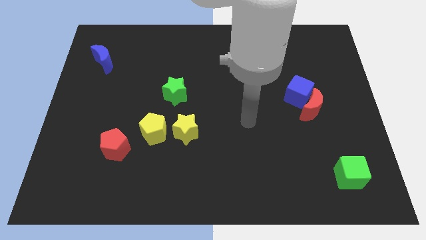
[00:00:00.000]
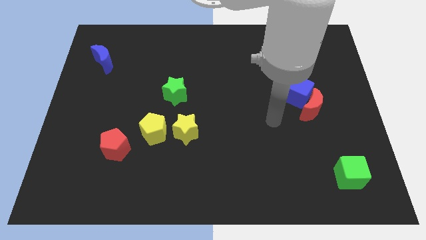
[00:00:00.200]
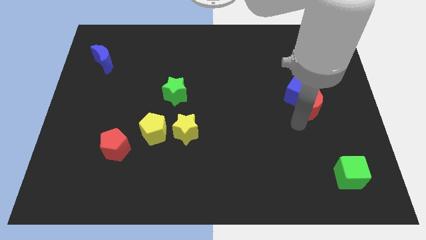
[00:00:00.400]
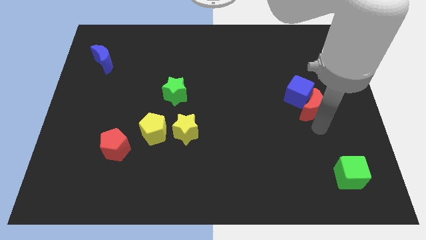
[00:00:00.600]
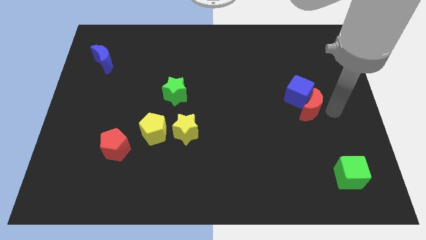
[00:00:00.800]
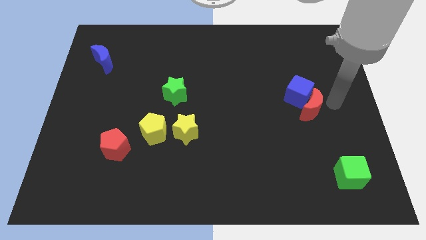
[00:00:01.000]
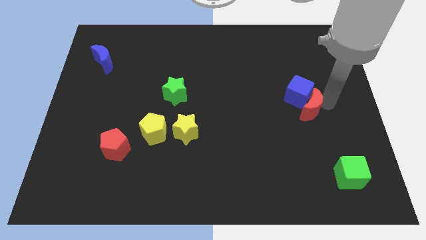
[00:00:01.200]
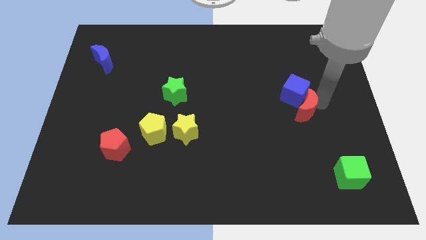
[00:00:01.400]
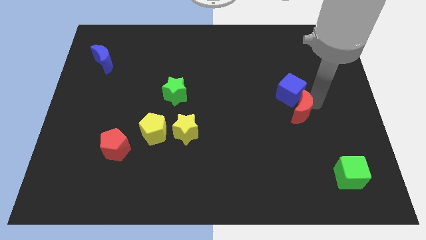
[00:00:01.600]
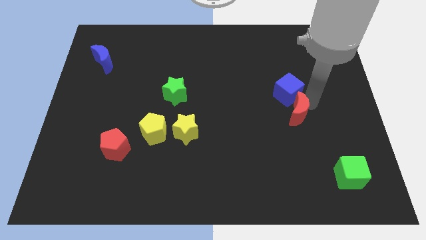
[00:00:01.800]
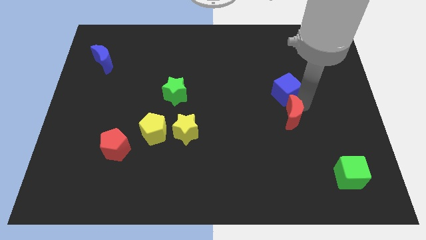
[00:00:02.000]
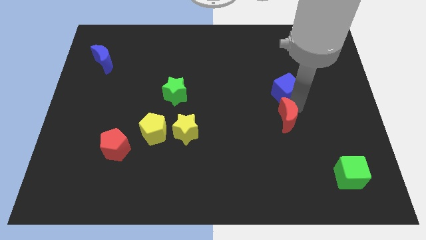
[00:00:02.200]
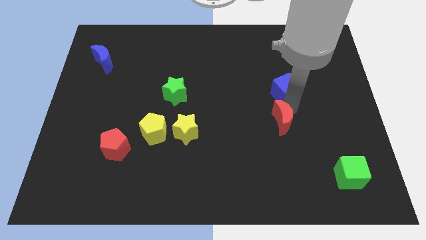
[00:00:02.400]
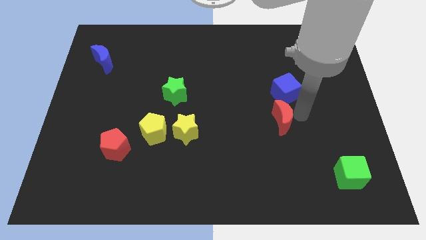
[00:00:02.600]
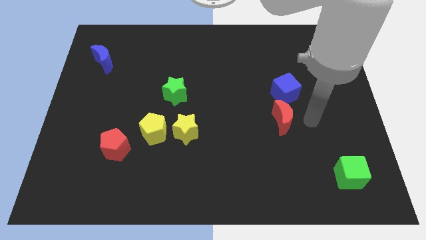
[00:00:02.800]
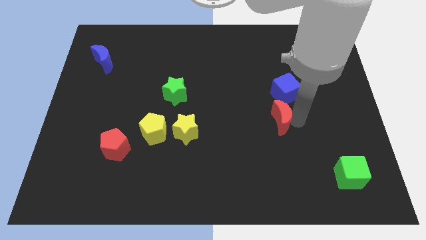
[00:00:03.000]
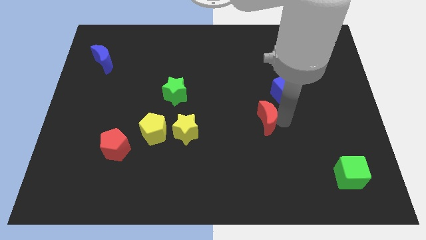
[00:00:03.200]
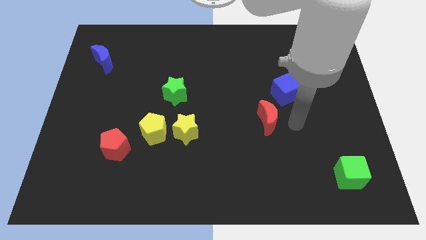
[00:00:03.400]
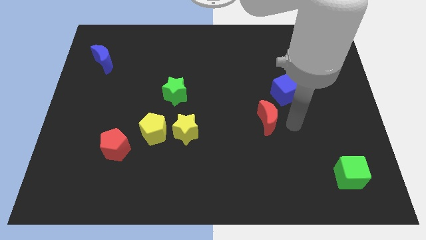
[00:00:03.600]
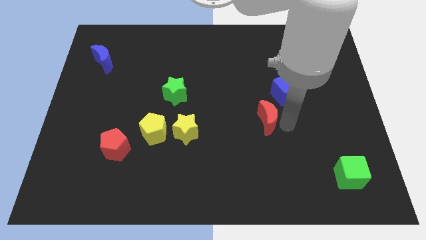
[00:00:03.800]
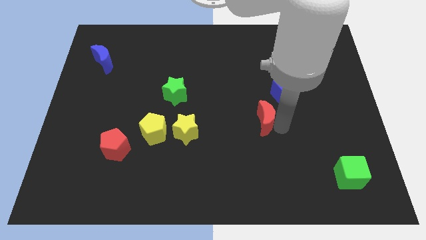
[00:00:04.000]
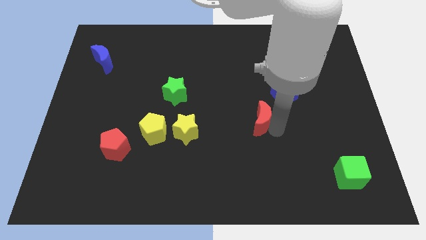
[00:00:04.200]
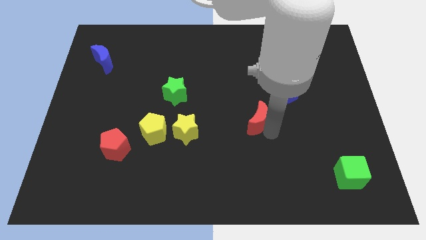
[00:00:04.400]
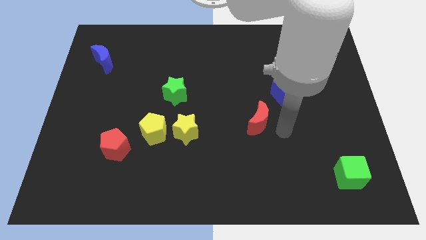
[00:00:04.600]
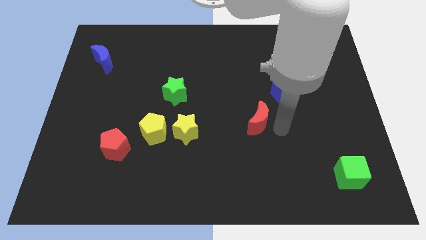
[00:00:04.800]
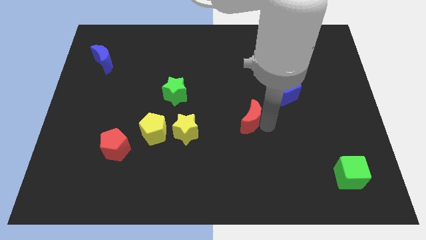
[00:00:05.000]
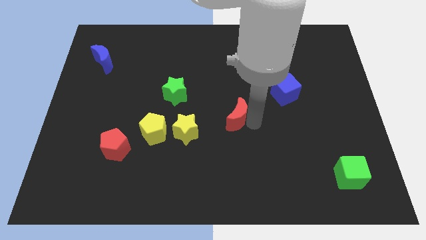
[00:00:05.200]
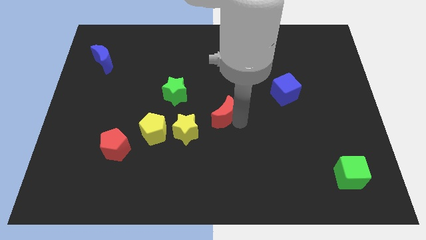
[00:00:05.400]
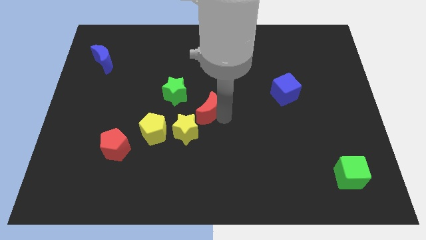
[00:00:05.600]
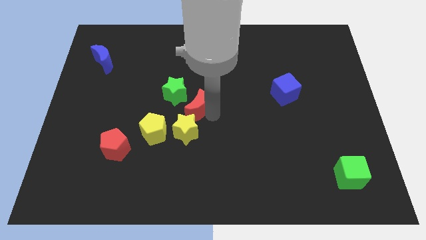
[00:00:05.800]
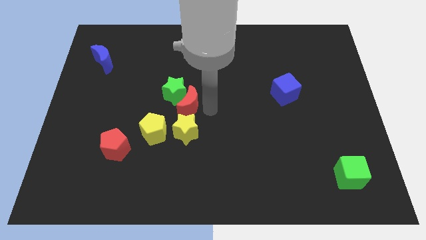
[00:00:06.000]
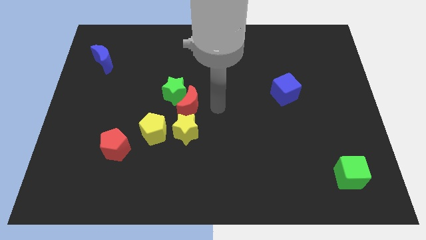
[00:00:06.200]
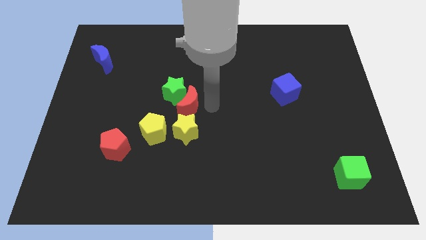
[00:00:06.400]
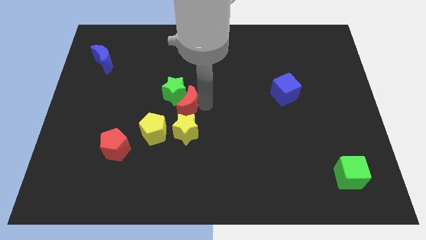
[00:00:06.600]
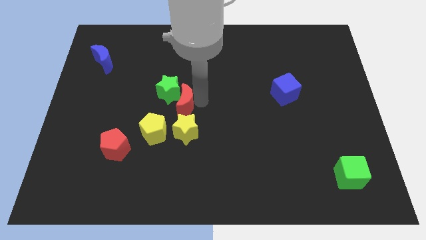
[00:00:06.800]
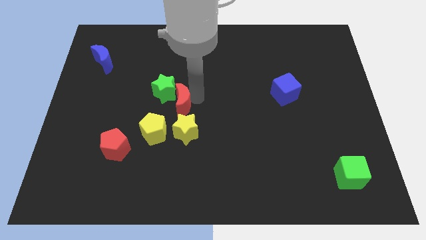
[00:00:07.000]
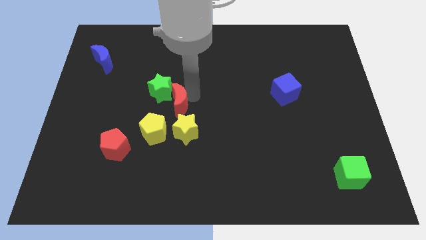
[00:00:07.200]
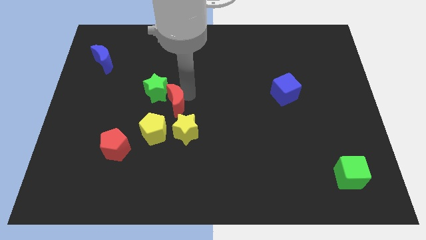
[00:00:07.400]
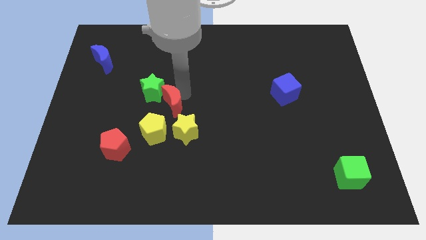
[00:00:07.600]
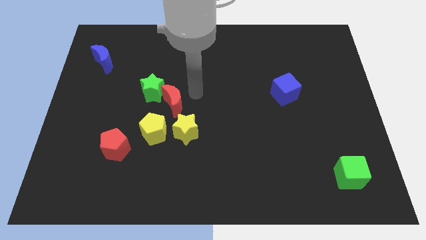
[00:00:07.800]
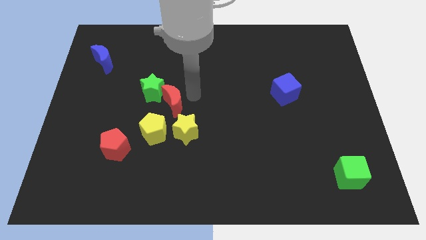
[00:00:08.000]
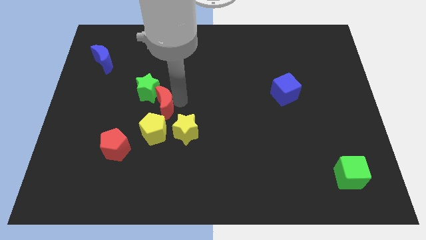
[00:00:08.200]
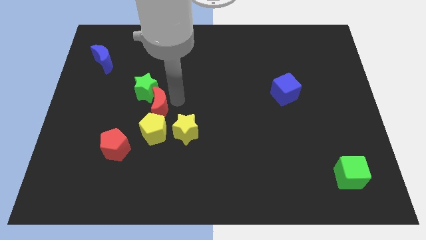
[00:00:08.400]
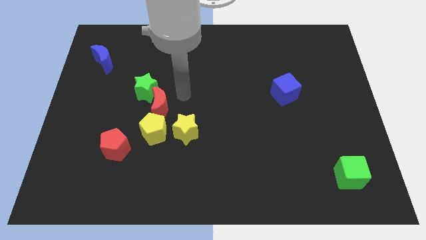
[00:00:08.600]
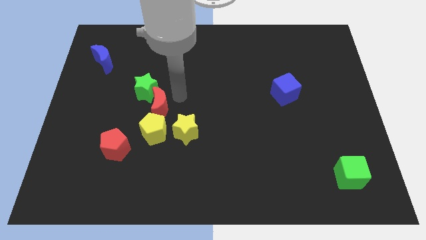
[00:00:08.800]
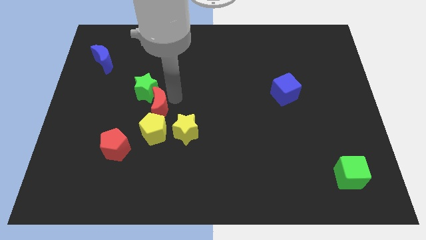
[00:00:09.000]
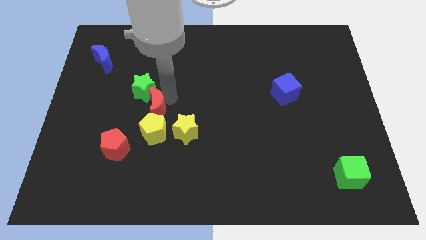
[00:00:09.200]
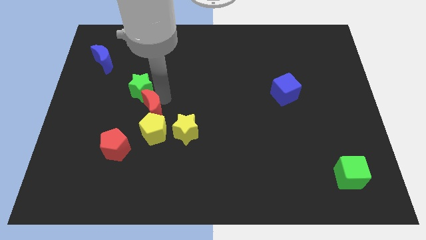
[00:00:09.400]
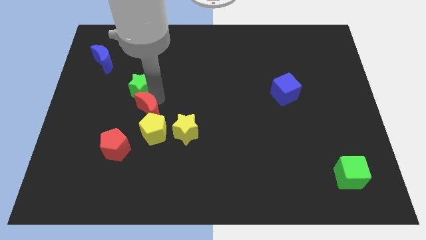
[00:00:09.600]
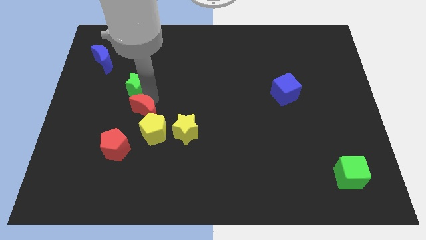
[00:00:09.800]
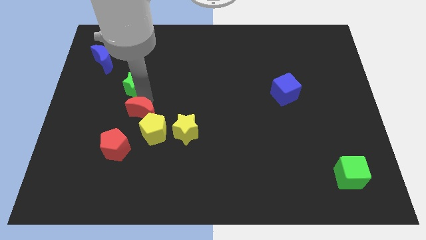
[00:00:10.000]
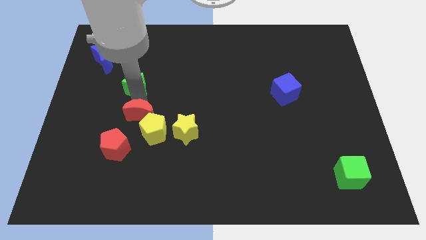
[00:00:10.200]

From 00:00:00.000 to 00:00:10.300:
push the red moon left of the yellow star

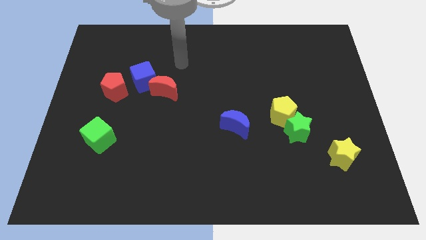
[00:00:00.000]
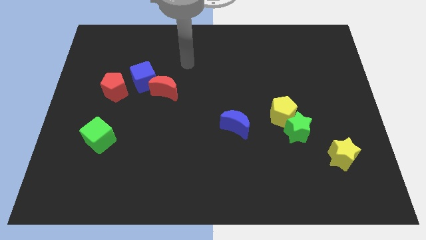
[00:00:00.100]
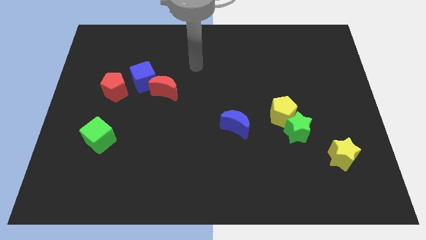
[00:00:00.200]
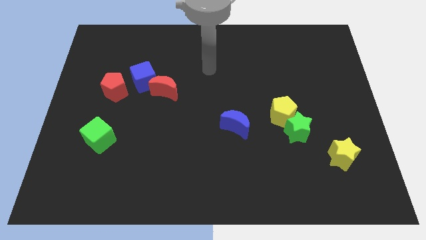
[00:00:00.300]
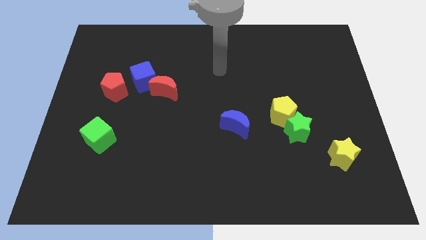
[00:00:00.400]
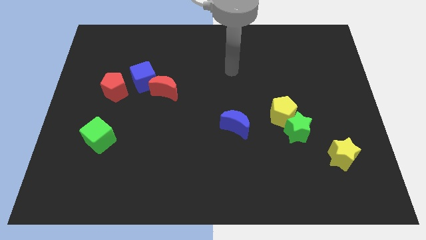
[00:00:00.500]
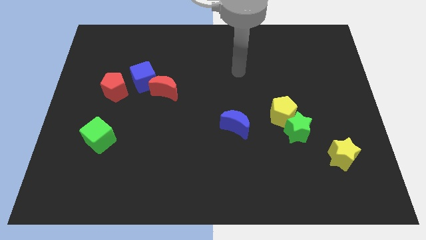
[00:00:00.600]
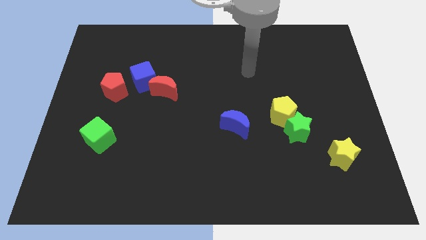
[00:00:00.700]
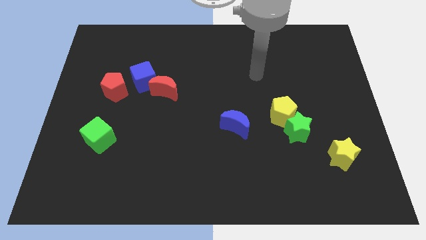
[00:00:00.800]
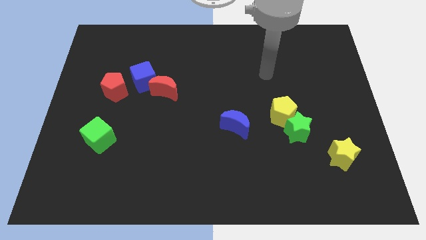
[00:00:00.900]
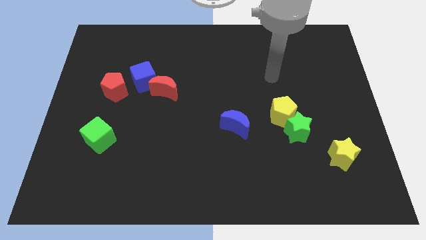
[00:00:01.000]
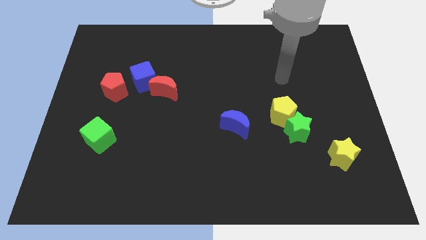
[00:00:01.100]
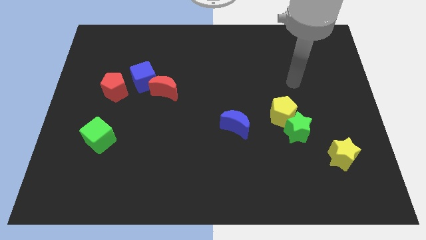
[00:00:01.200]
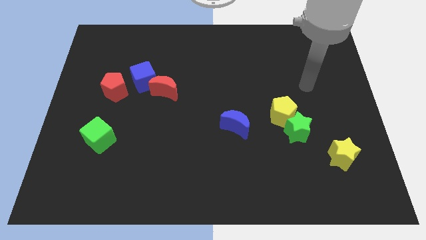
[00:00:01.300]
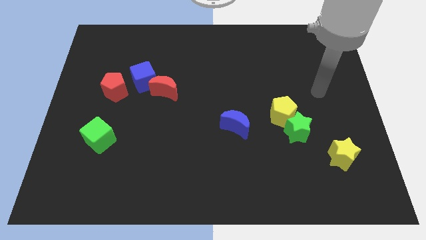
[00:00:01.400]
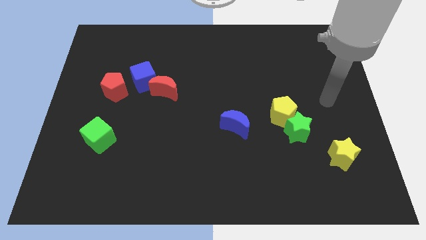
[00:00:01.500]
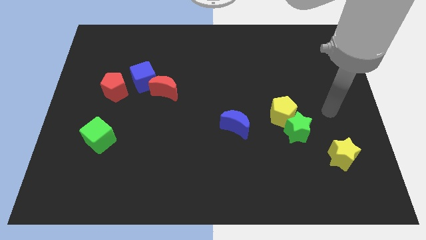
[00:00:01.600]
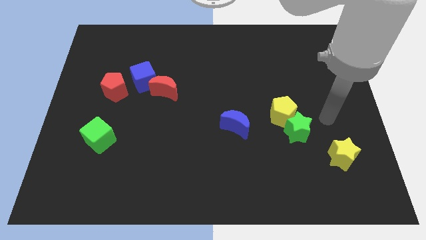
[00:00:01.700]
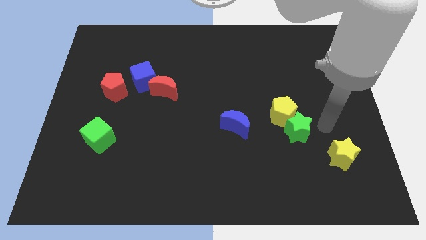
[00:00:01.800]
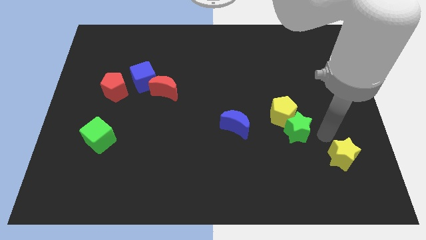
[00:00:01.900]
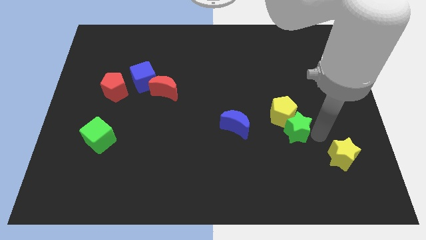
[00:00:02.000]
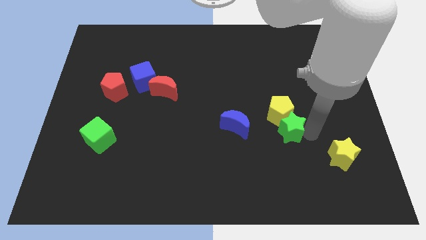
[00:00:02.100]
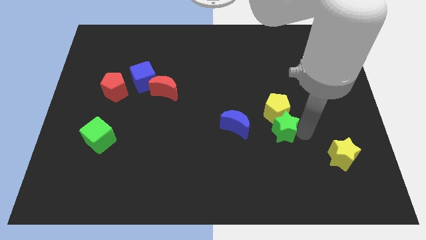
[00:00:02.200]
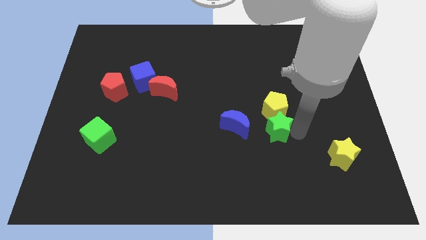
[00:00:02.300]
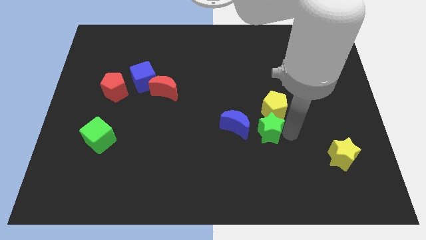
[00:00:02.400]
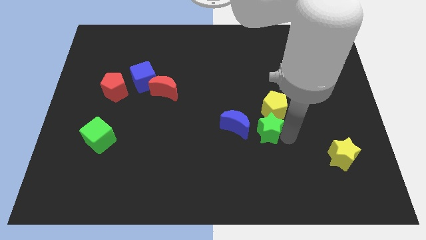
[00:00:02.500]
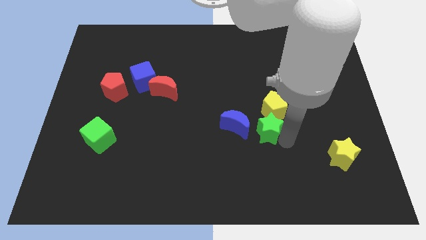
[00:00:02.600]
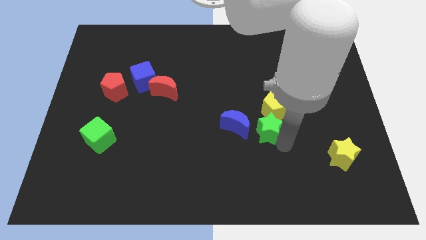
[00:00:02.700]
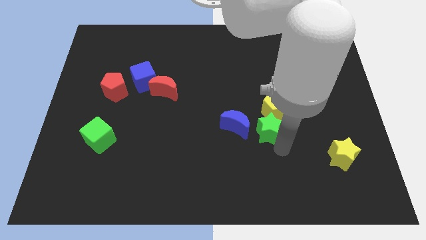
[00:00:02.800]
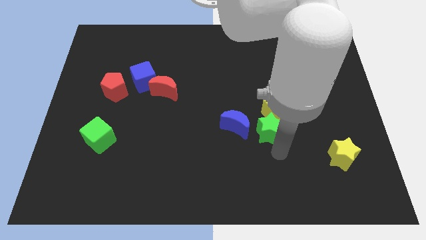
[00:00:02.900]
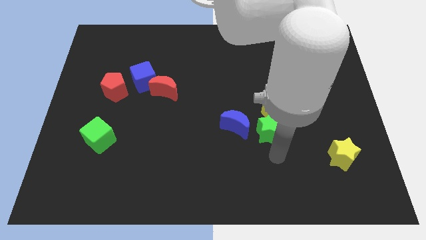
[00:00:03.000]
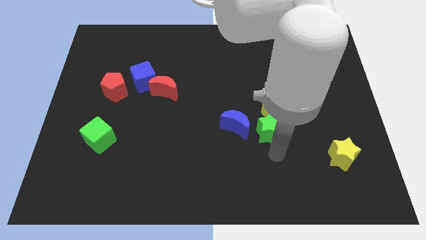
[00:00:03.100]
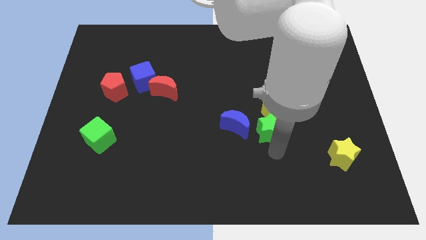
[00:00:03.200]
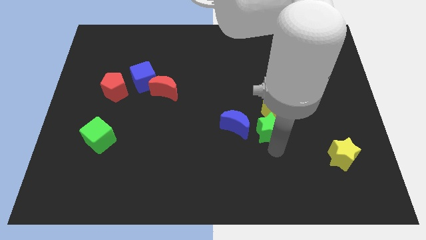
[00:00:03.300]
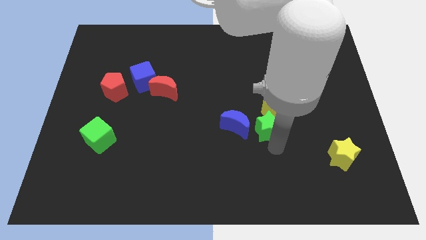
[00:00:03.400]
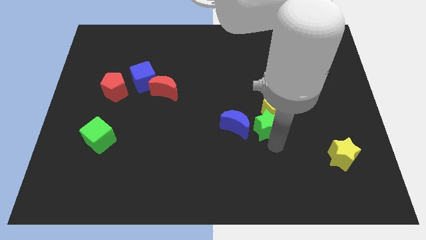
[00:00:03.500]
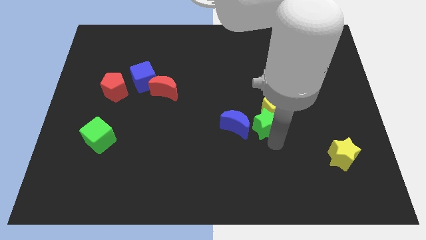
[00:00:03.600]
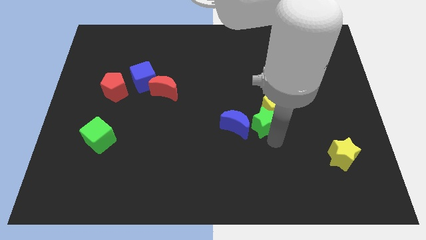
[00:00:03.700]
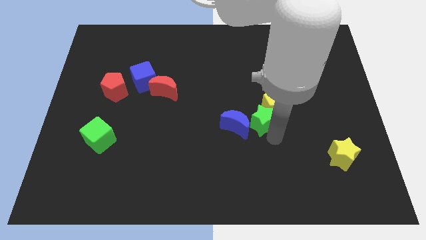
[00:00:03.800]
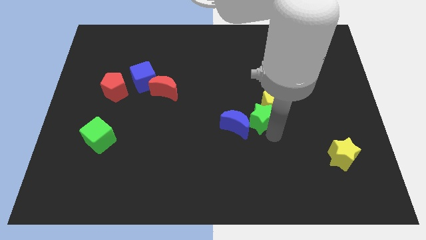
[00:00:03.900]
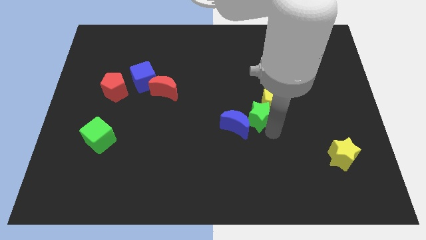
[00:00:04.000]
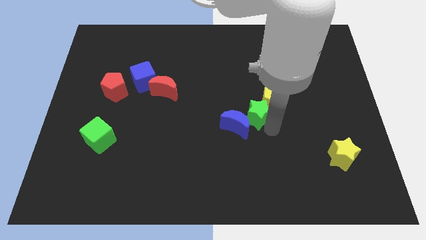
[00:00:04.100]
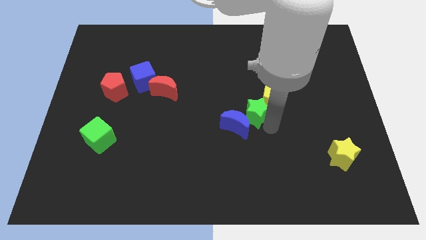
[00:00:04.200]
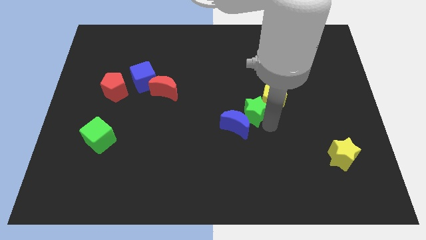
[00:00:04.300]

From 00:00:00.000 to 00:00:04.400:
push the green star above the blue moon
